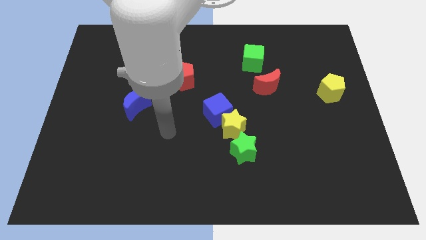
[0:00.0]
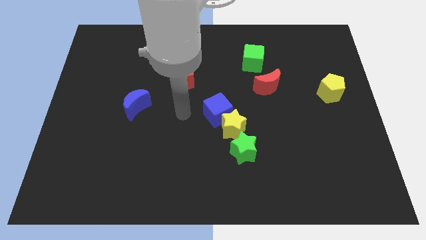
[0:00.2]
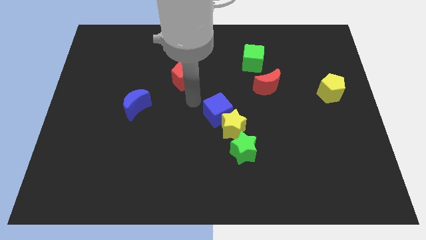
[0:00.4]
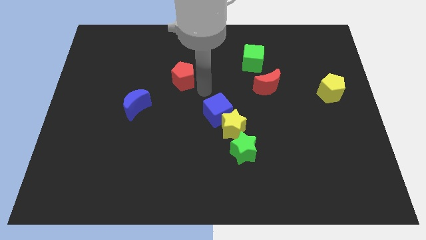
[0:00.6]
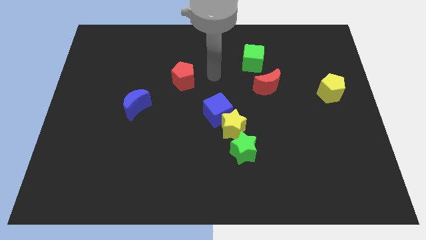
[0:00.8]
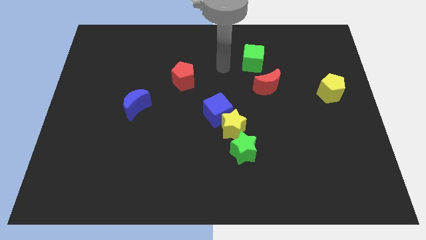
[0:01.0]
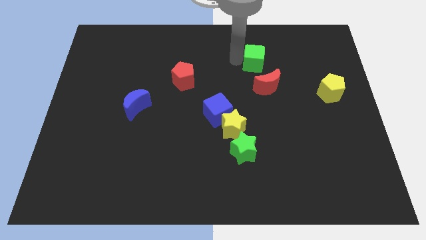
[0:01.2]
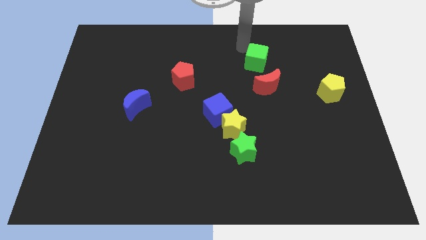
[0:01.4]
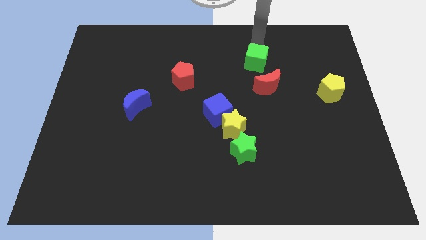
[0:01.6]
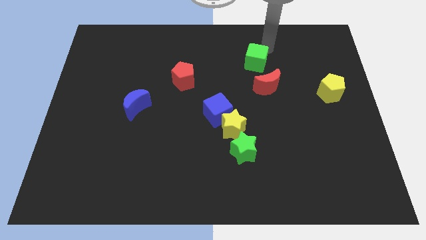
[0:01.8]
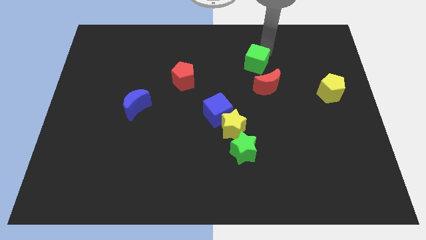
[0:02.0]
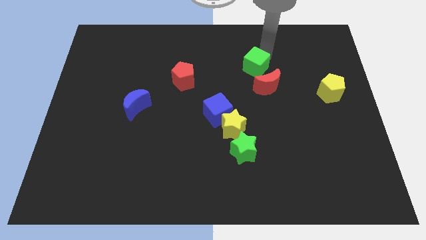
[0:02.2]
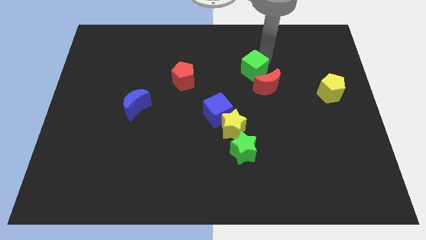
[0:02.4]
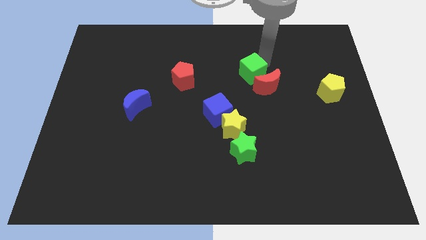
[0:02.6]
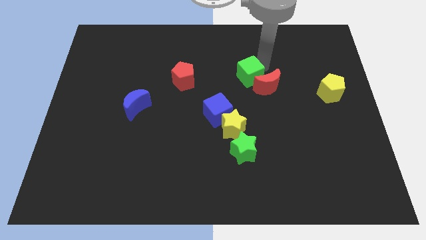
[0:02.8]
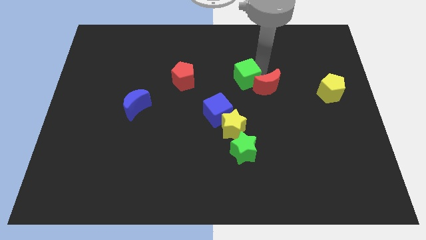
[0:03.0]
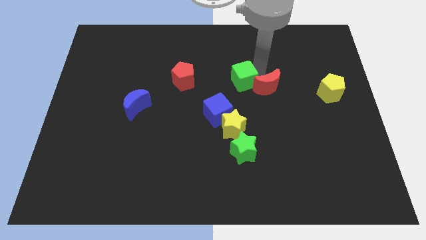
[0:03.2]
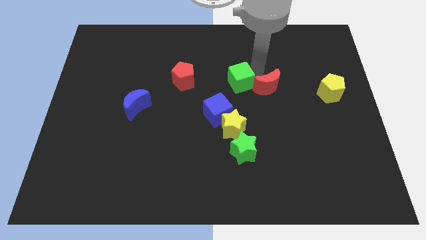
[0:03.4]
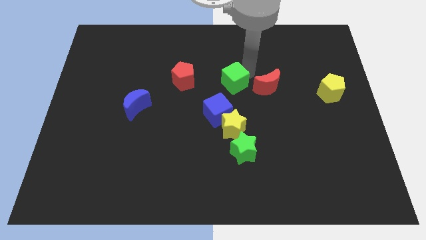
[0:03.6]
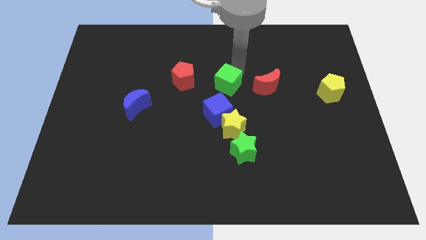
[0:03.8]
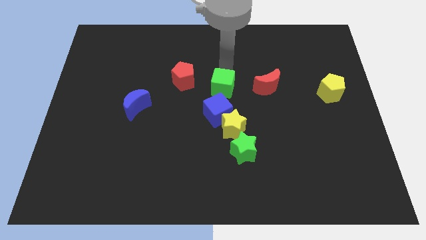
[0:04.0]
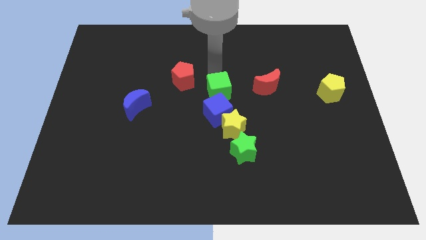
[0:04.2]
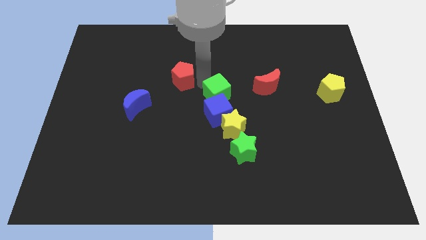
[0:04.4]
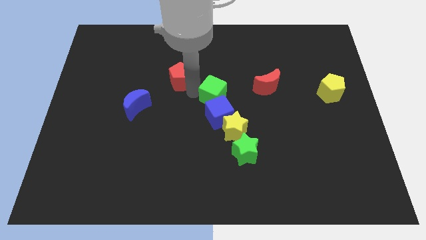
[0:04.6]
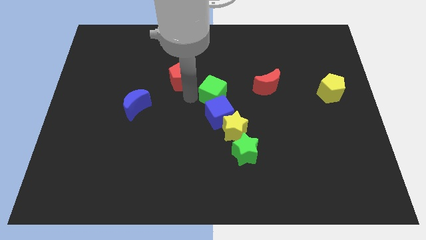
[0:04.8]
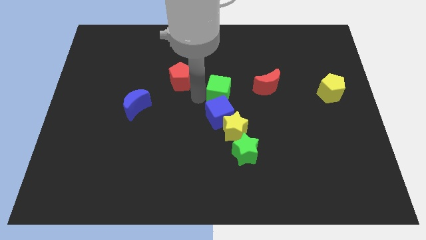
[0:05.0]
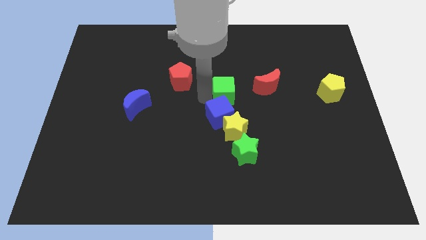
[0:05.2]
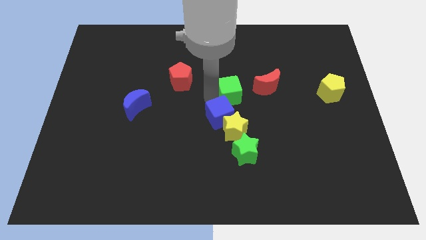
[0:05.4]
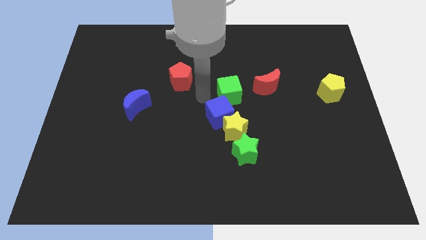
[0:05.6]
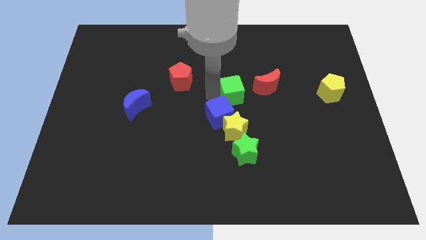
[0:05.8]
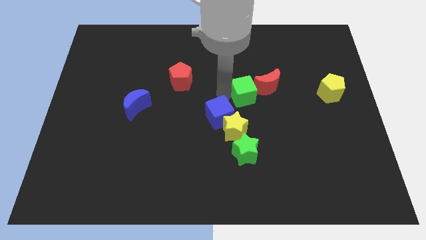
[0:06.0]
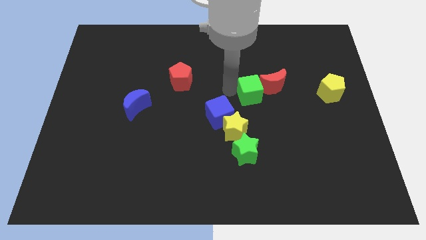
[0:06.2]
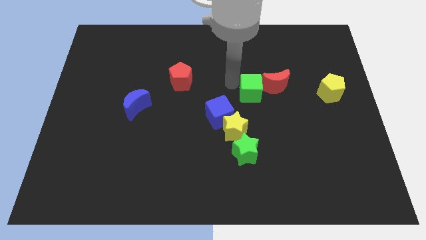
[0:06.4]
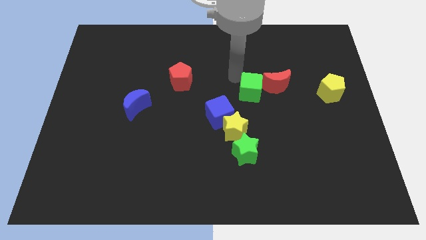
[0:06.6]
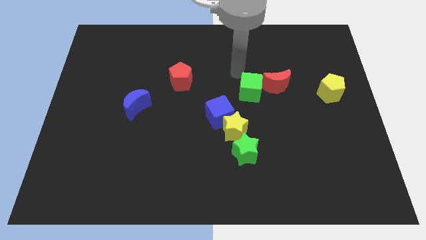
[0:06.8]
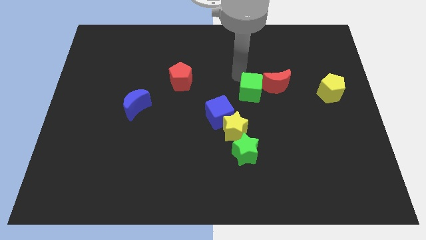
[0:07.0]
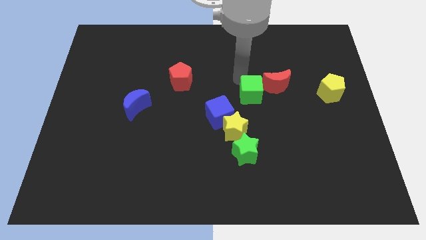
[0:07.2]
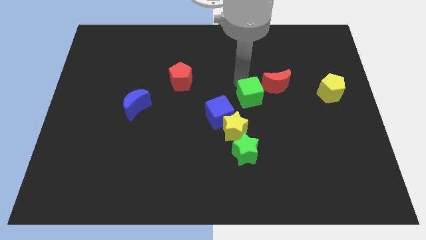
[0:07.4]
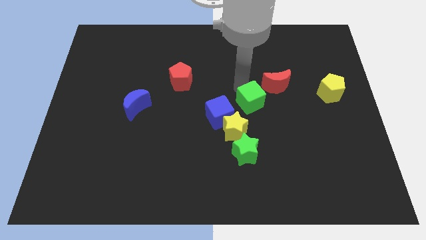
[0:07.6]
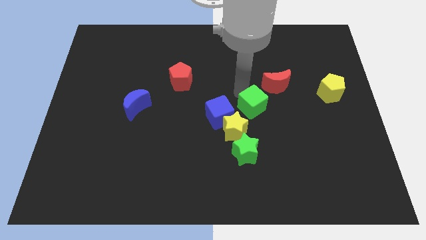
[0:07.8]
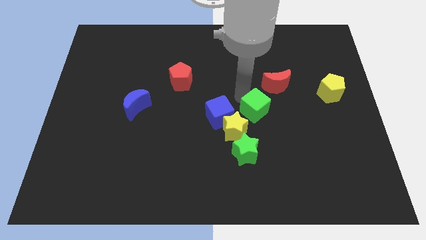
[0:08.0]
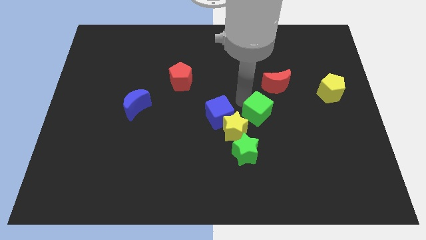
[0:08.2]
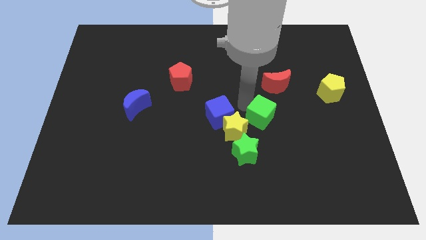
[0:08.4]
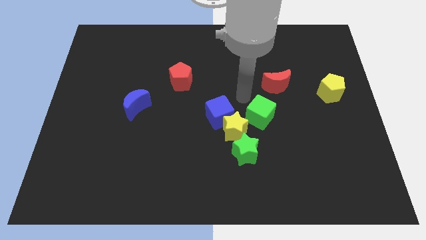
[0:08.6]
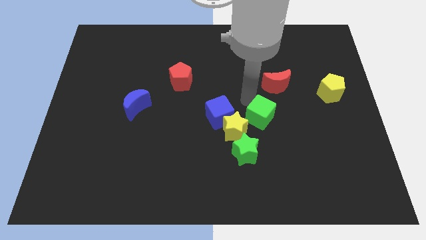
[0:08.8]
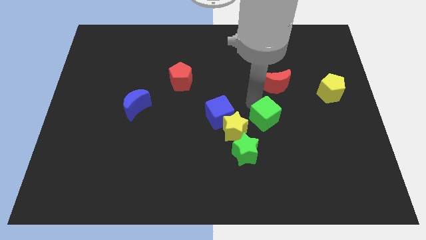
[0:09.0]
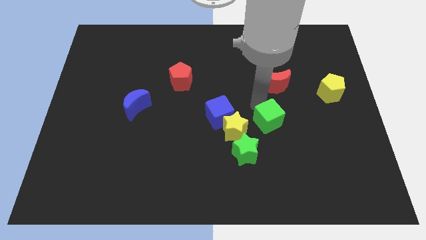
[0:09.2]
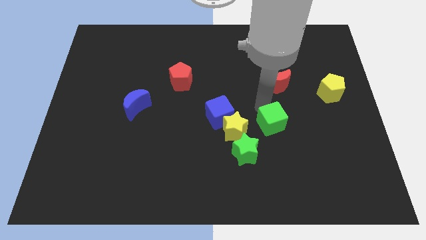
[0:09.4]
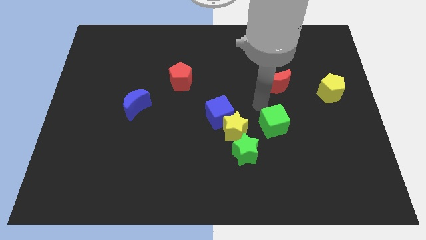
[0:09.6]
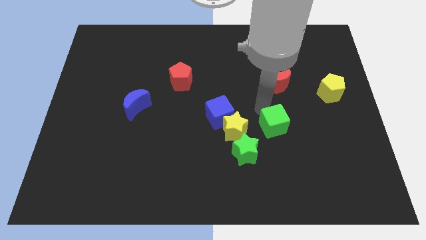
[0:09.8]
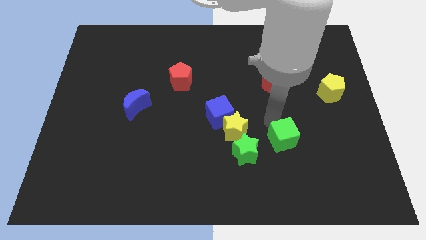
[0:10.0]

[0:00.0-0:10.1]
slide the green cube just right of the green star

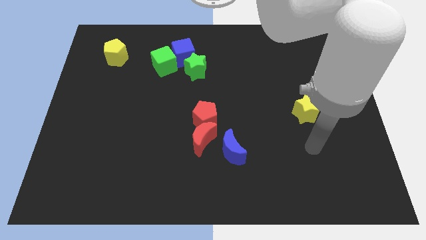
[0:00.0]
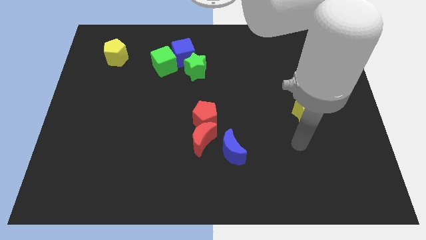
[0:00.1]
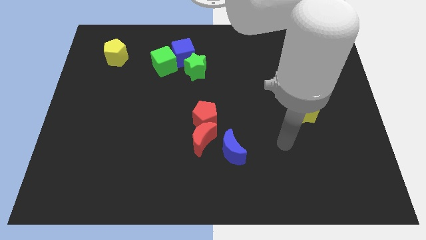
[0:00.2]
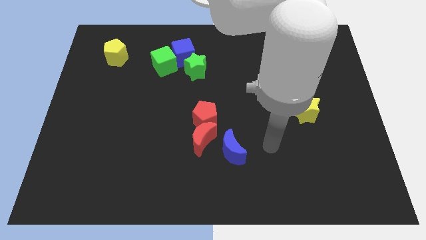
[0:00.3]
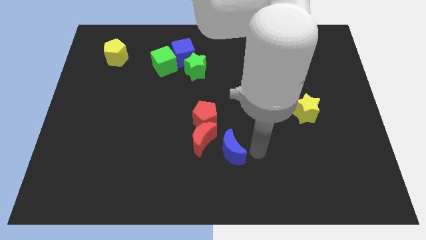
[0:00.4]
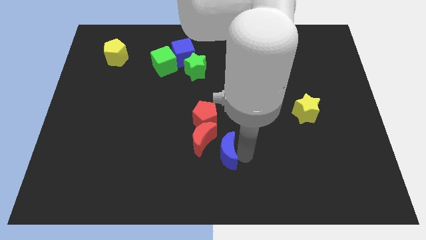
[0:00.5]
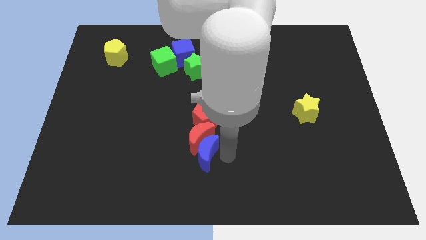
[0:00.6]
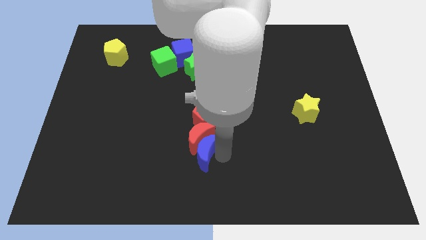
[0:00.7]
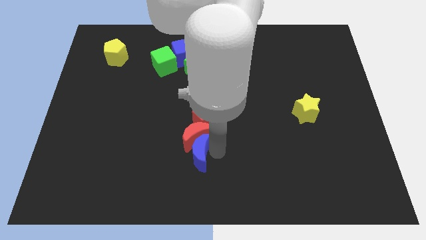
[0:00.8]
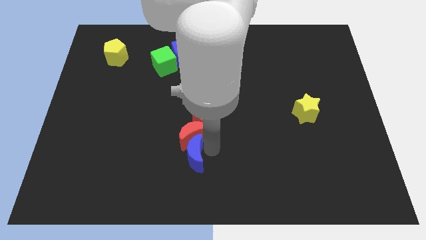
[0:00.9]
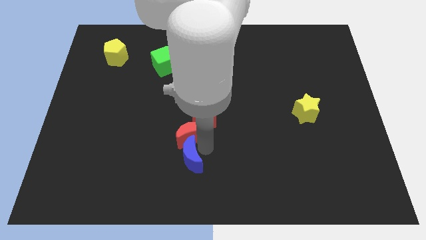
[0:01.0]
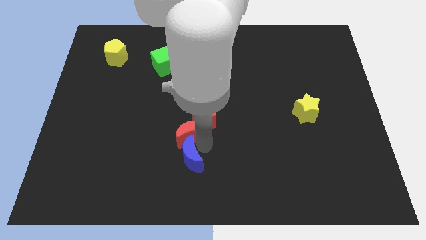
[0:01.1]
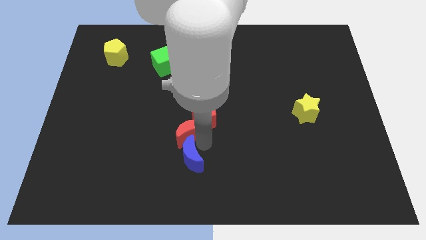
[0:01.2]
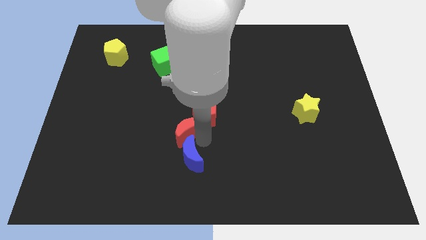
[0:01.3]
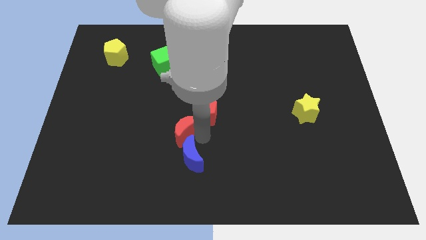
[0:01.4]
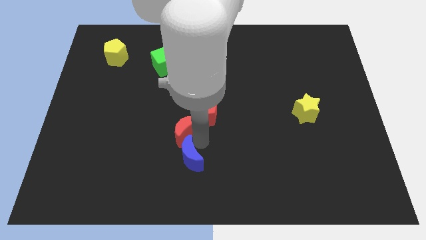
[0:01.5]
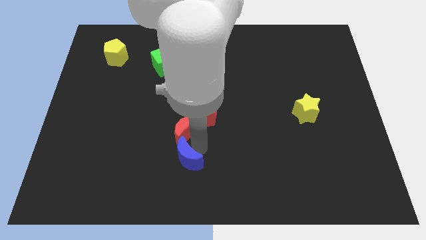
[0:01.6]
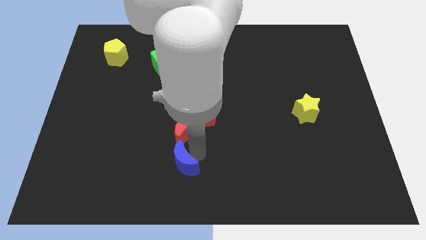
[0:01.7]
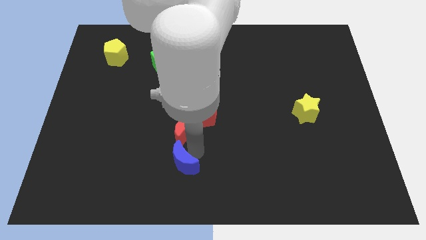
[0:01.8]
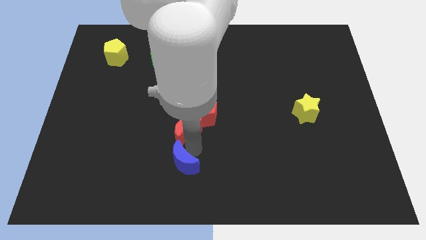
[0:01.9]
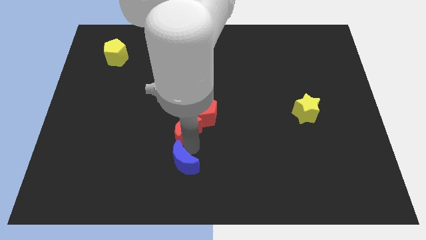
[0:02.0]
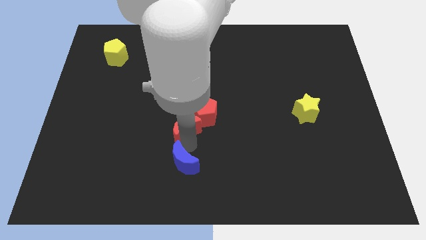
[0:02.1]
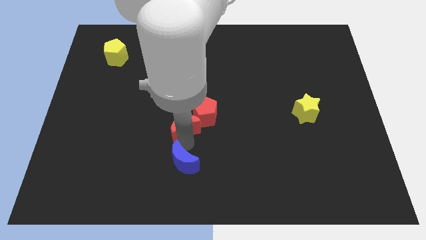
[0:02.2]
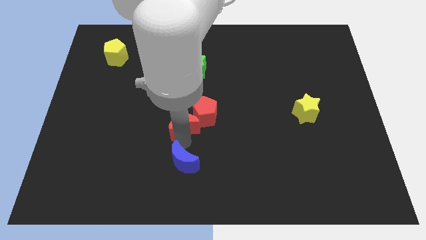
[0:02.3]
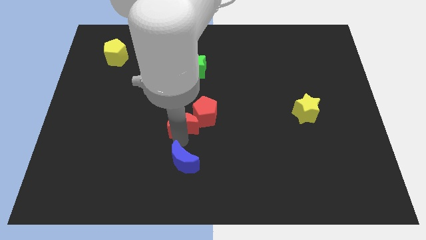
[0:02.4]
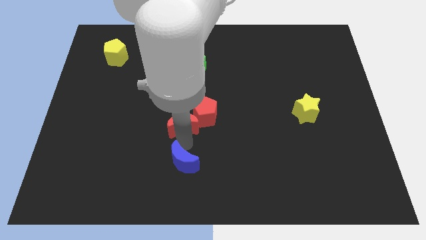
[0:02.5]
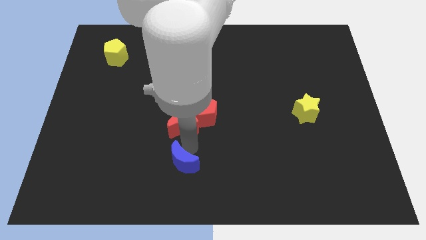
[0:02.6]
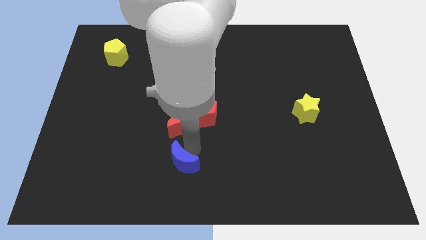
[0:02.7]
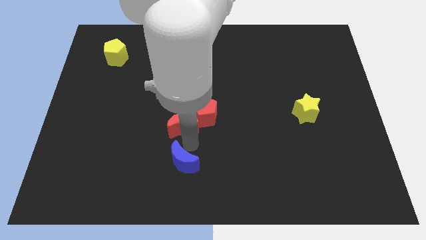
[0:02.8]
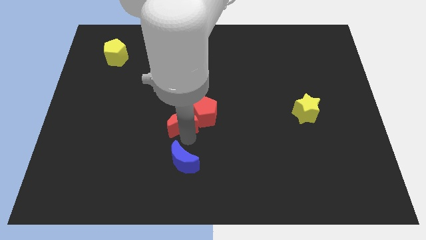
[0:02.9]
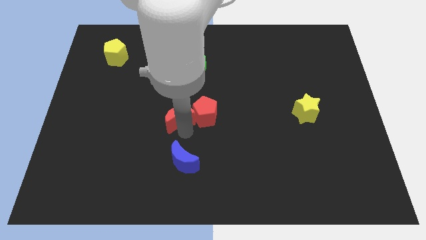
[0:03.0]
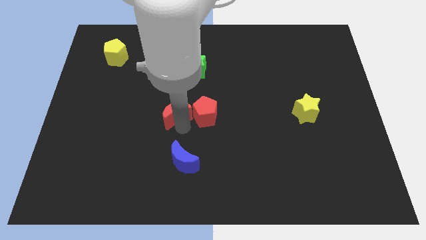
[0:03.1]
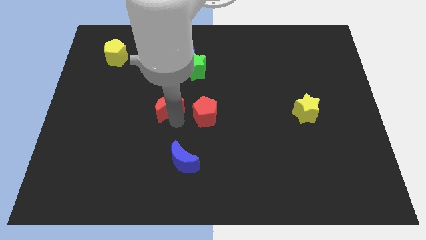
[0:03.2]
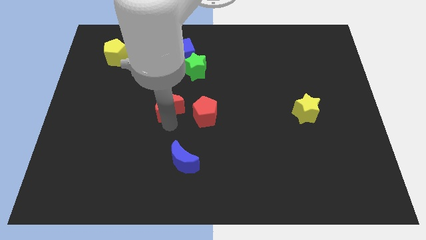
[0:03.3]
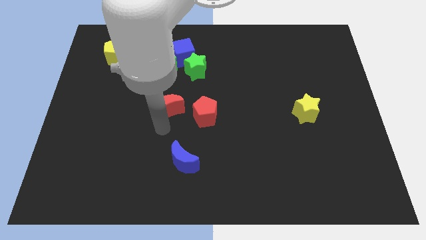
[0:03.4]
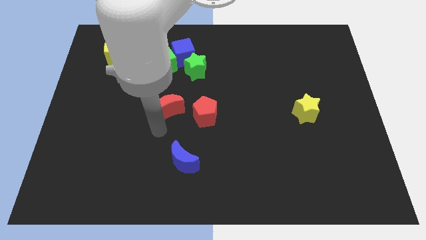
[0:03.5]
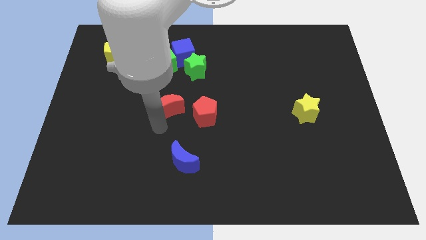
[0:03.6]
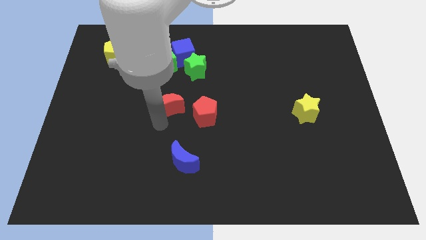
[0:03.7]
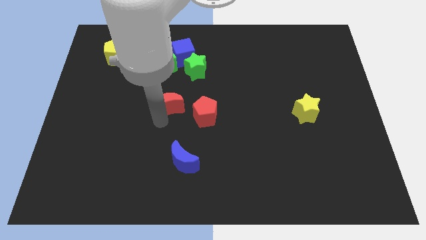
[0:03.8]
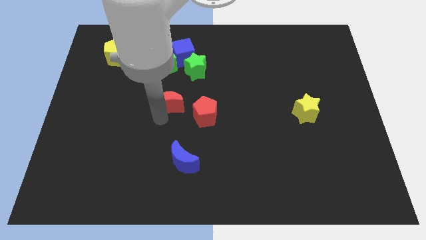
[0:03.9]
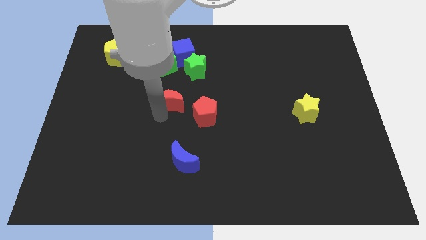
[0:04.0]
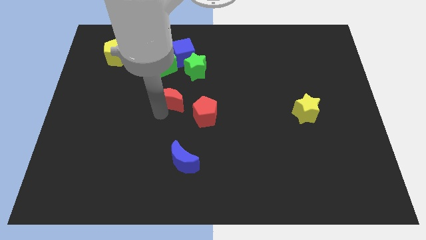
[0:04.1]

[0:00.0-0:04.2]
slide the red moon to the bottom of the blue cube
